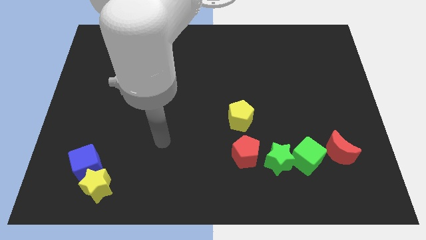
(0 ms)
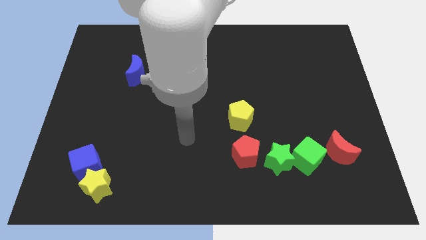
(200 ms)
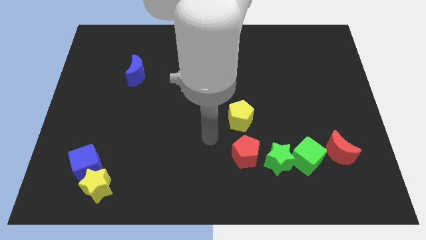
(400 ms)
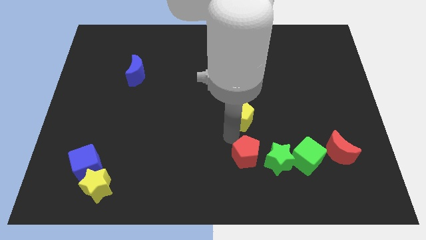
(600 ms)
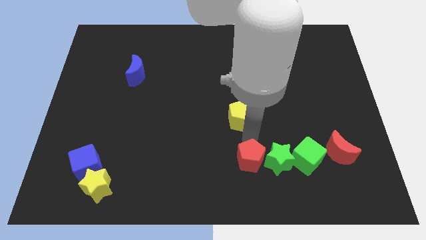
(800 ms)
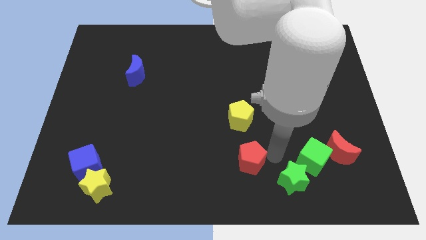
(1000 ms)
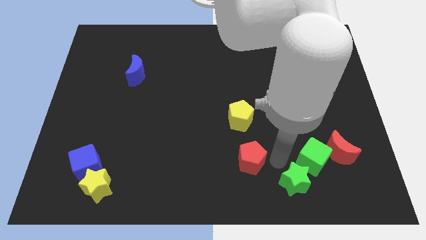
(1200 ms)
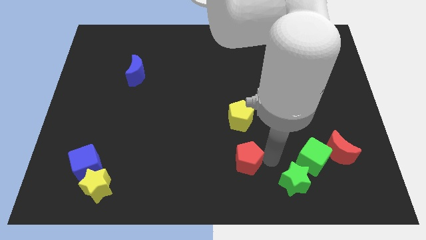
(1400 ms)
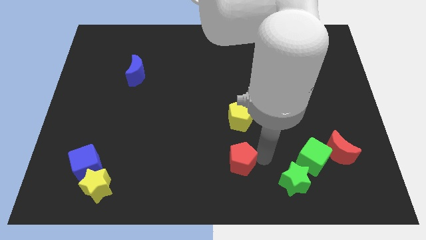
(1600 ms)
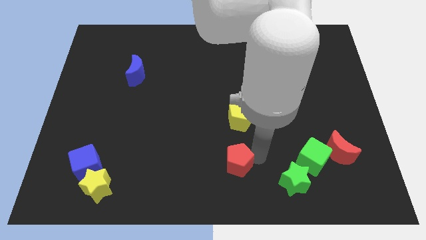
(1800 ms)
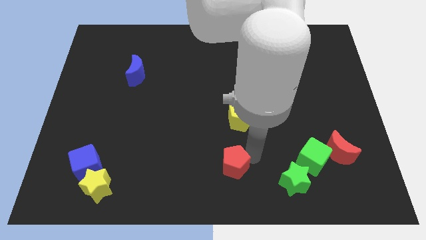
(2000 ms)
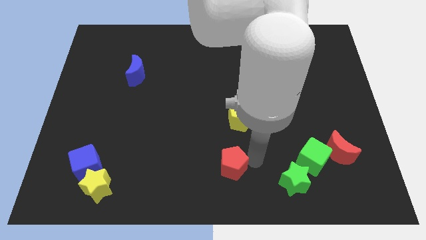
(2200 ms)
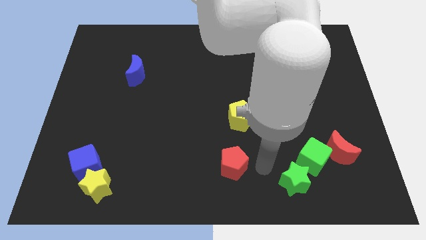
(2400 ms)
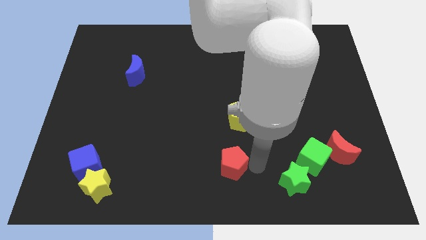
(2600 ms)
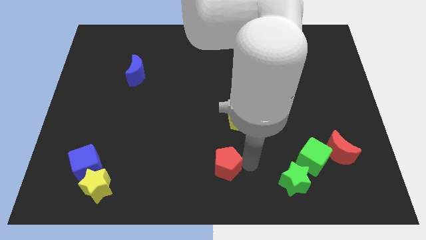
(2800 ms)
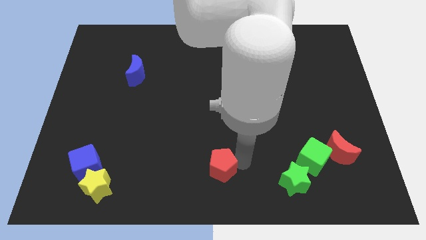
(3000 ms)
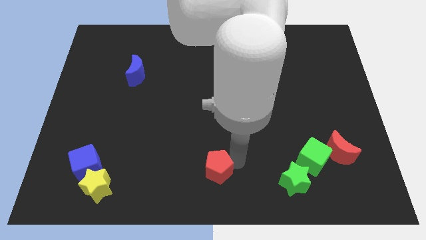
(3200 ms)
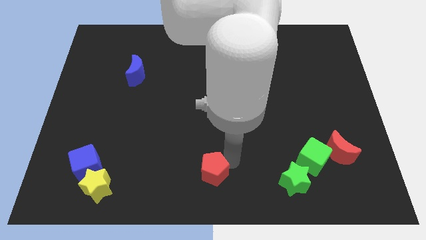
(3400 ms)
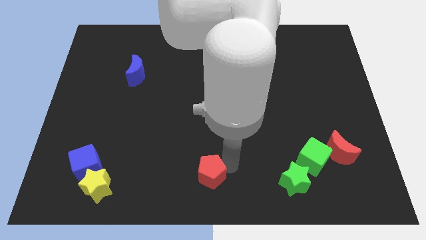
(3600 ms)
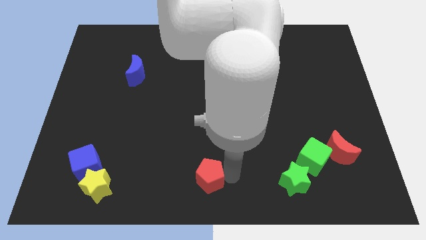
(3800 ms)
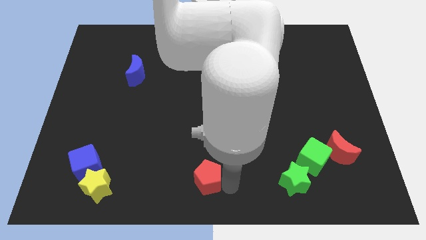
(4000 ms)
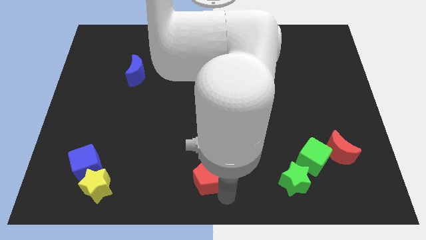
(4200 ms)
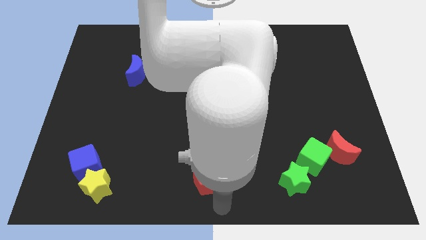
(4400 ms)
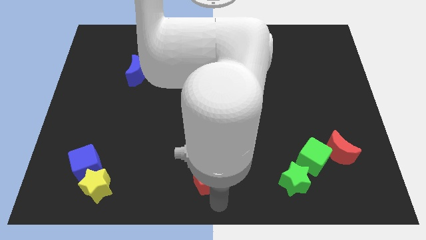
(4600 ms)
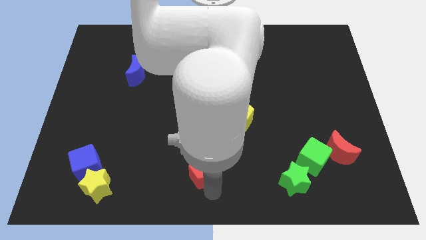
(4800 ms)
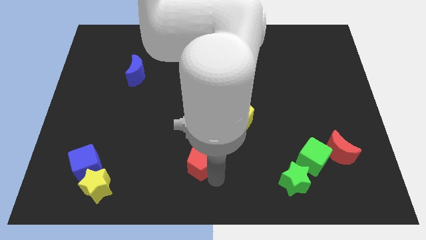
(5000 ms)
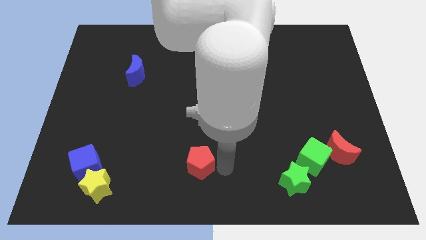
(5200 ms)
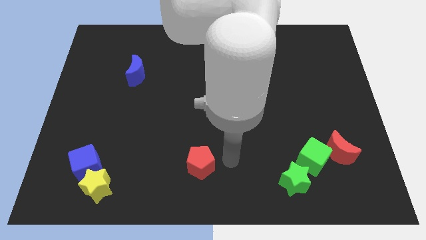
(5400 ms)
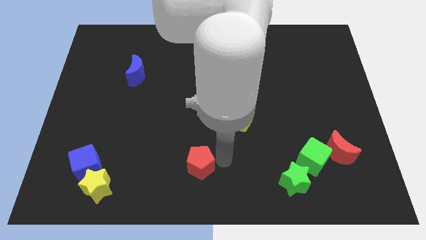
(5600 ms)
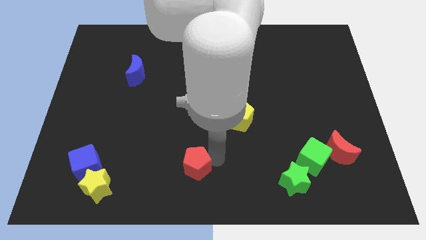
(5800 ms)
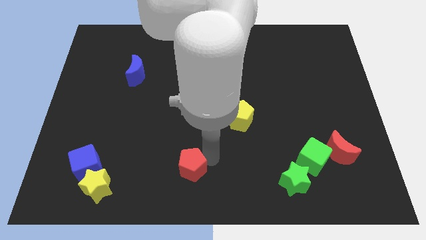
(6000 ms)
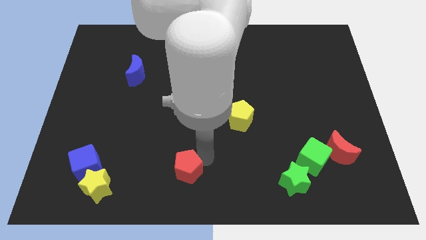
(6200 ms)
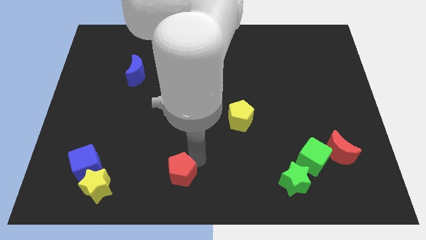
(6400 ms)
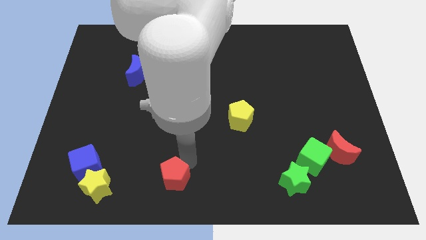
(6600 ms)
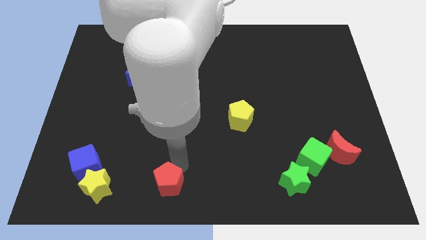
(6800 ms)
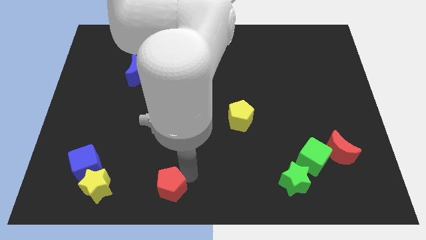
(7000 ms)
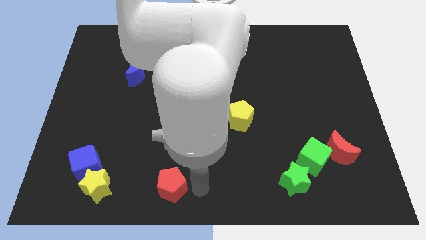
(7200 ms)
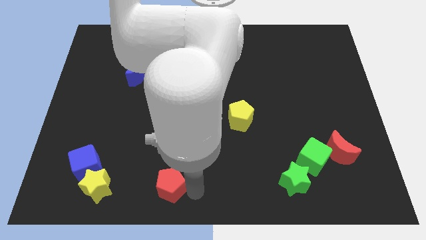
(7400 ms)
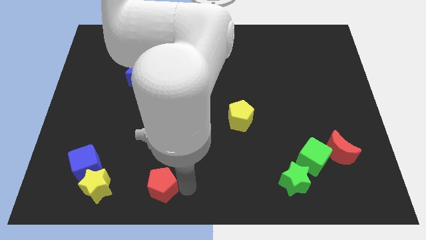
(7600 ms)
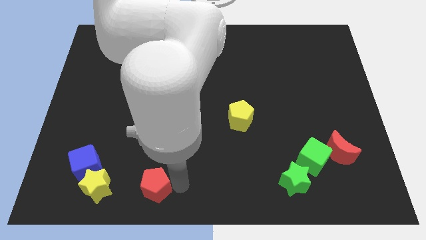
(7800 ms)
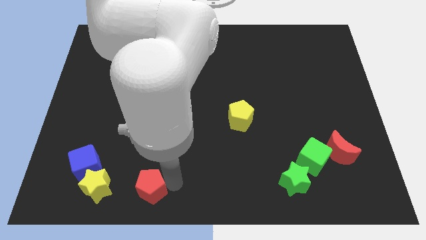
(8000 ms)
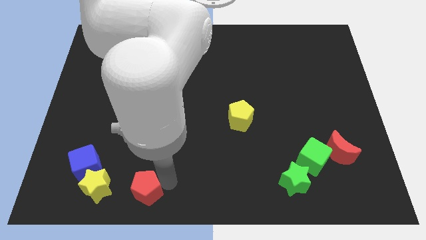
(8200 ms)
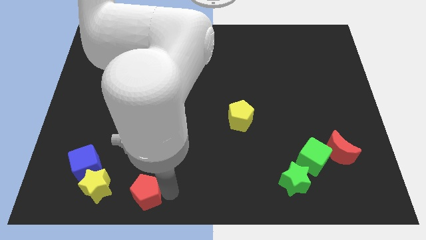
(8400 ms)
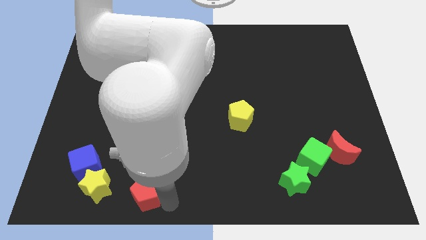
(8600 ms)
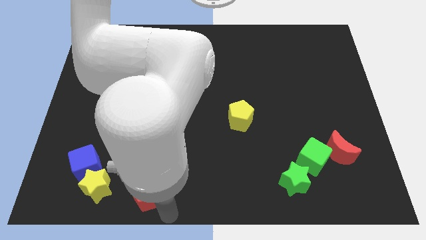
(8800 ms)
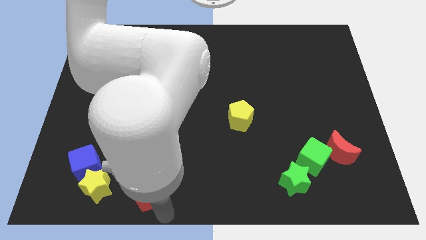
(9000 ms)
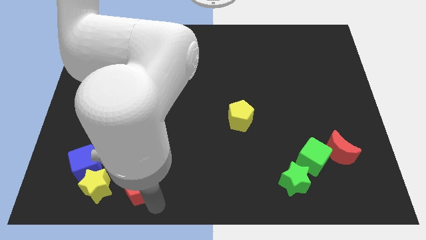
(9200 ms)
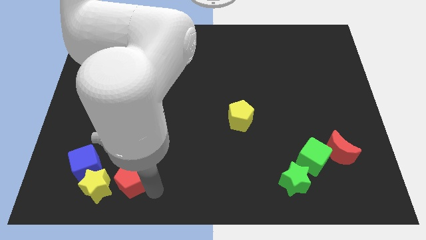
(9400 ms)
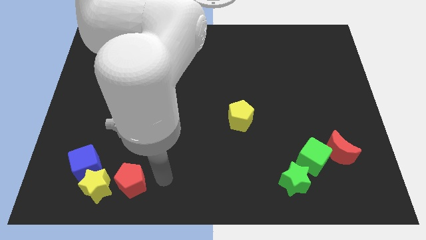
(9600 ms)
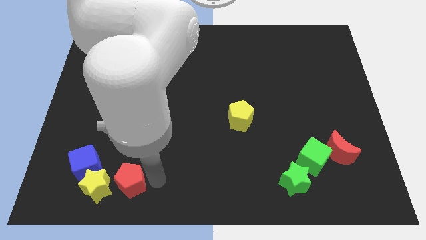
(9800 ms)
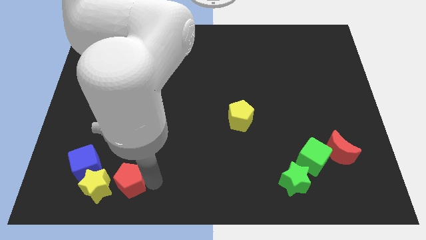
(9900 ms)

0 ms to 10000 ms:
push the red pentagon close to the yellow star

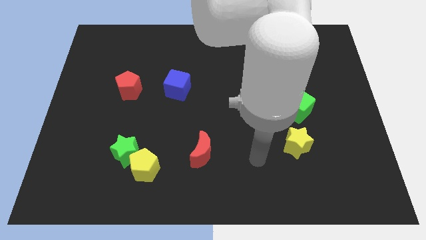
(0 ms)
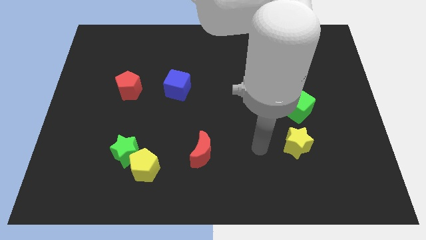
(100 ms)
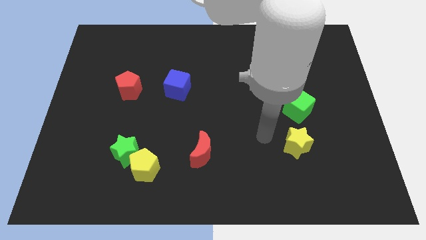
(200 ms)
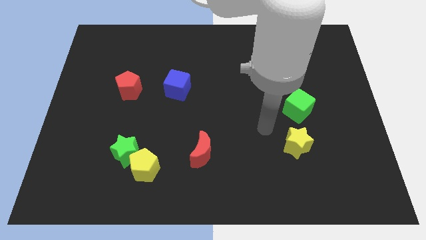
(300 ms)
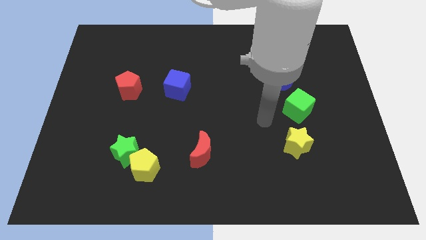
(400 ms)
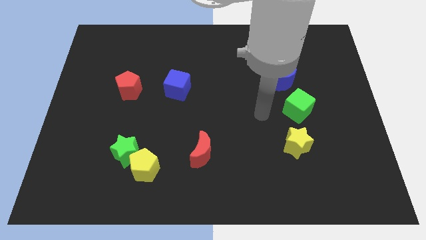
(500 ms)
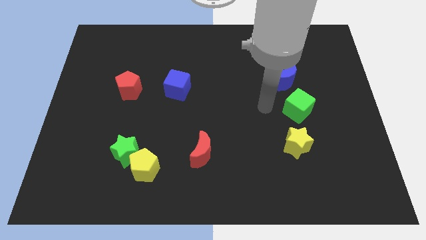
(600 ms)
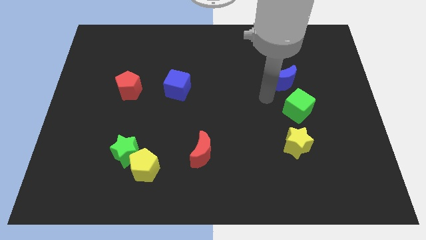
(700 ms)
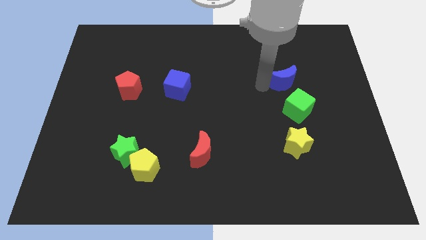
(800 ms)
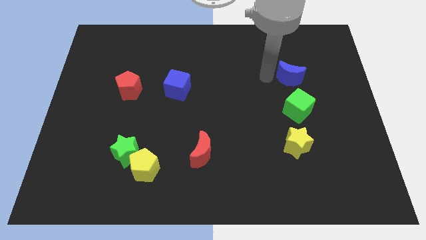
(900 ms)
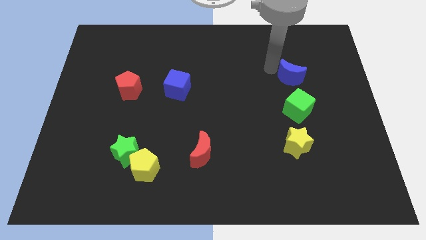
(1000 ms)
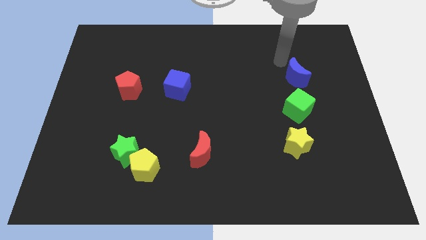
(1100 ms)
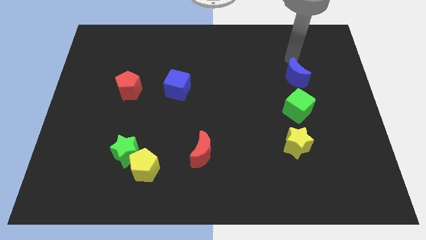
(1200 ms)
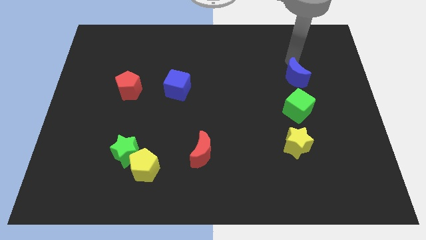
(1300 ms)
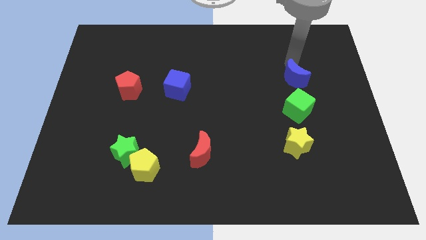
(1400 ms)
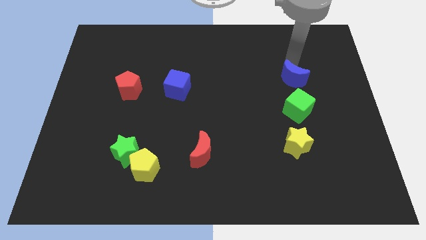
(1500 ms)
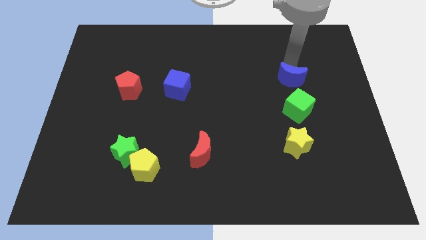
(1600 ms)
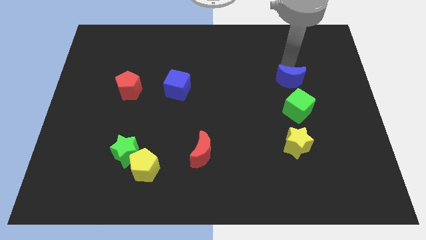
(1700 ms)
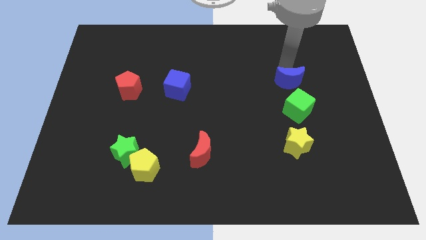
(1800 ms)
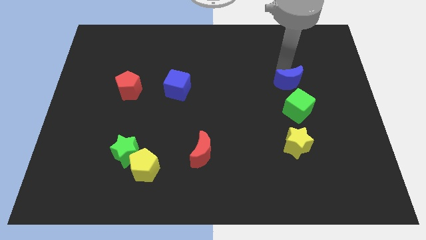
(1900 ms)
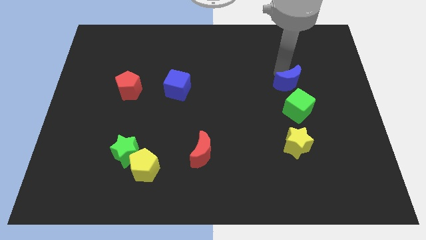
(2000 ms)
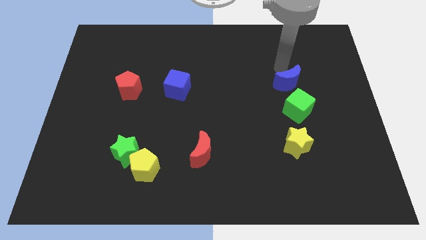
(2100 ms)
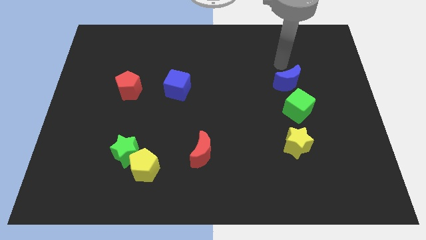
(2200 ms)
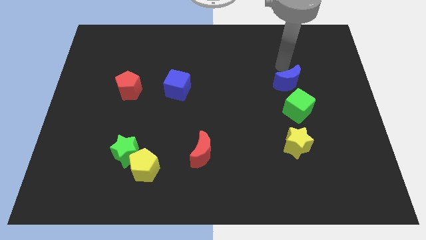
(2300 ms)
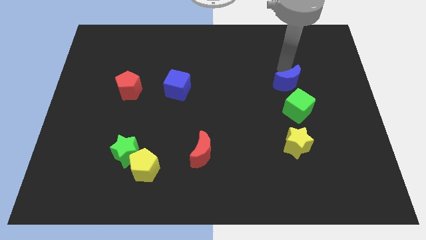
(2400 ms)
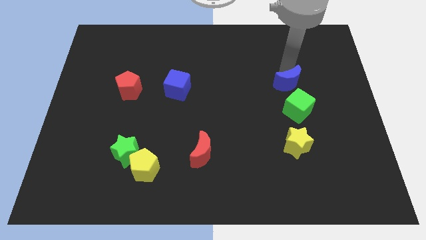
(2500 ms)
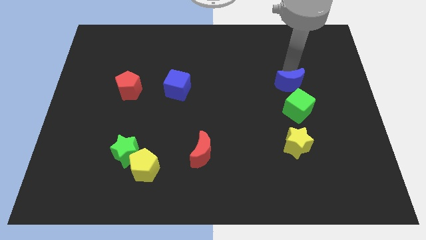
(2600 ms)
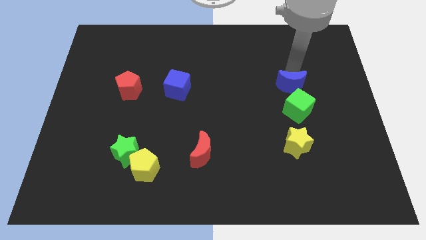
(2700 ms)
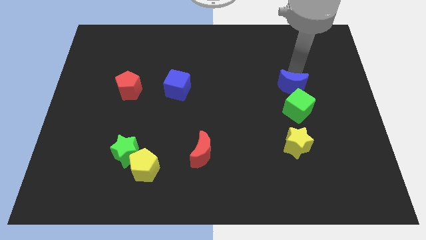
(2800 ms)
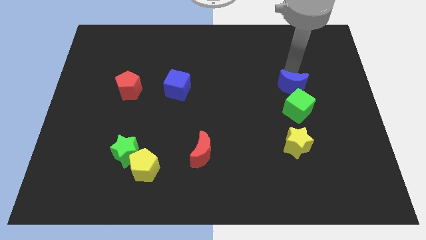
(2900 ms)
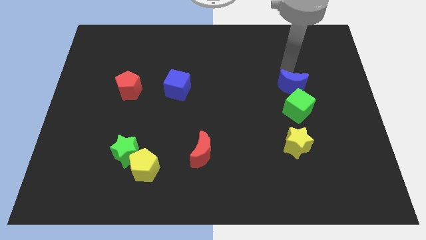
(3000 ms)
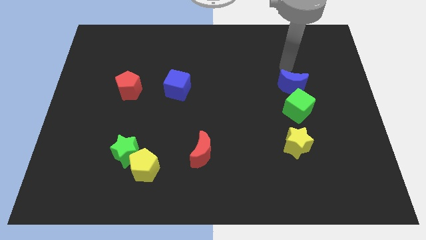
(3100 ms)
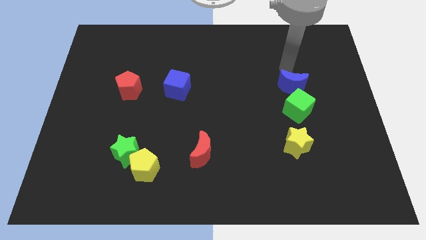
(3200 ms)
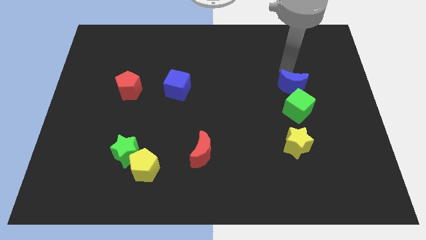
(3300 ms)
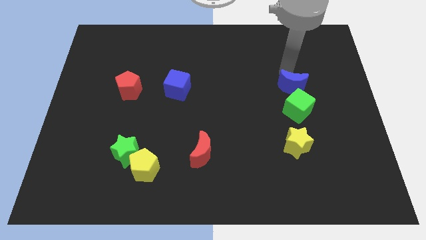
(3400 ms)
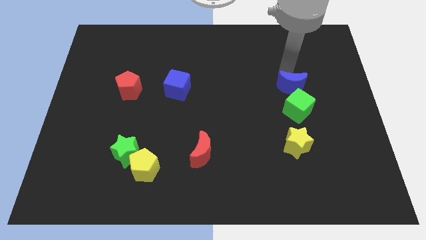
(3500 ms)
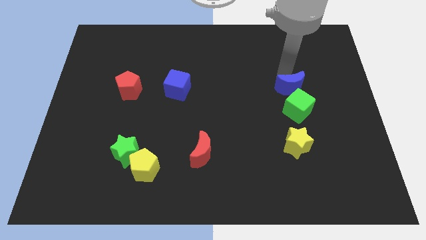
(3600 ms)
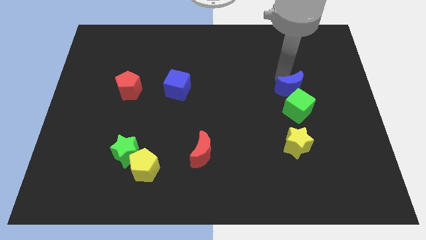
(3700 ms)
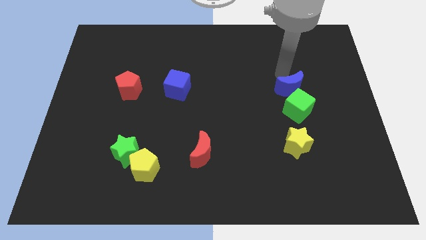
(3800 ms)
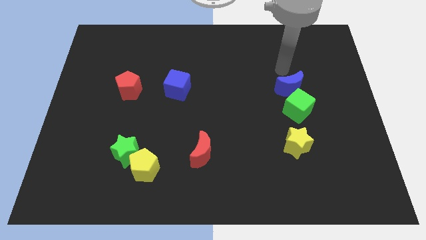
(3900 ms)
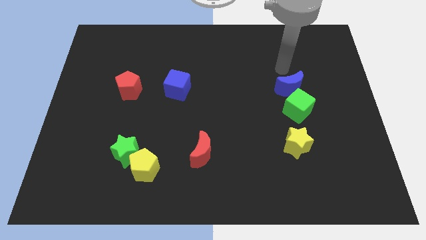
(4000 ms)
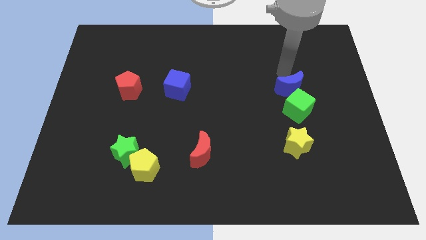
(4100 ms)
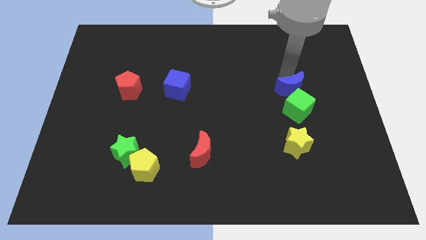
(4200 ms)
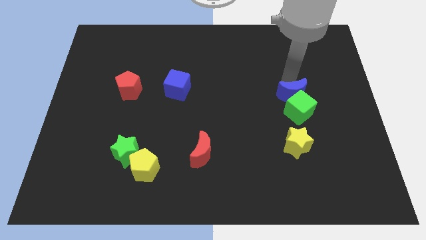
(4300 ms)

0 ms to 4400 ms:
move the blue moon to the green cube
